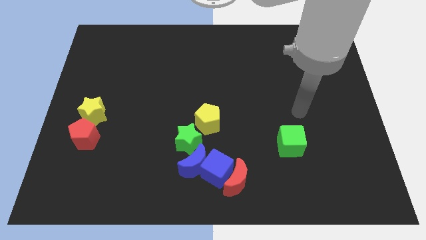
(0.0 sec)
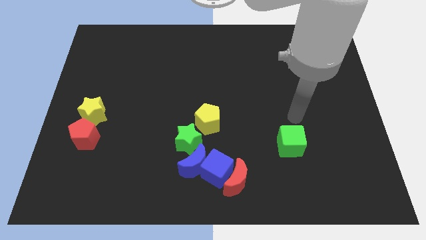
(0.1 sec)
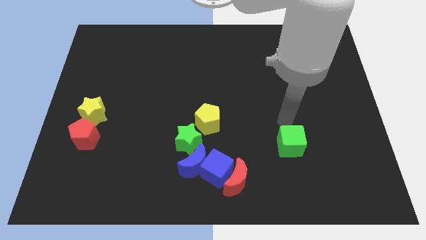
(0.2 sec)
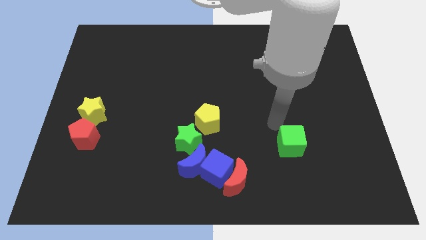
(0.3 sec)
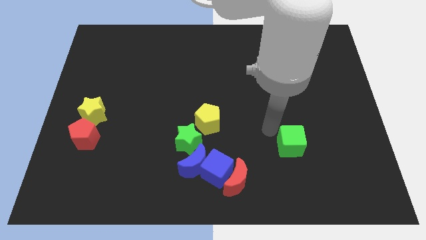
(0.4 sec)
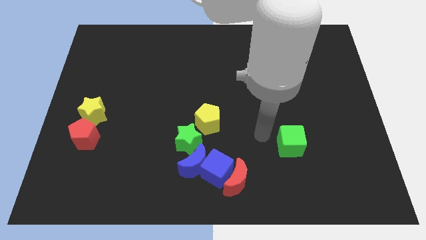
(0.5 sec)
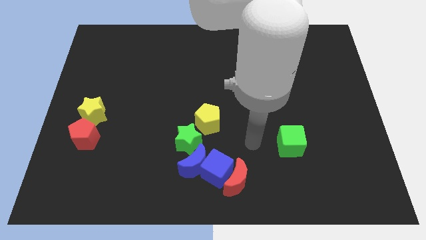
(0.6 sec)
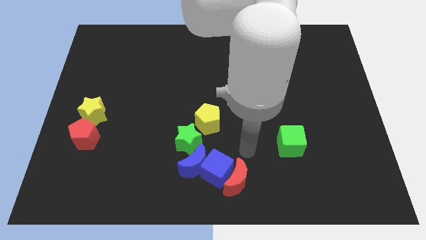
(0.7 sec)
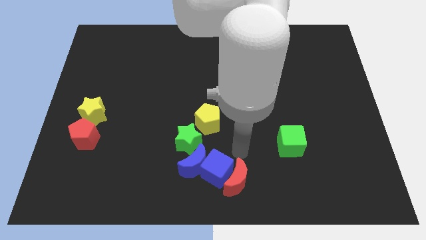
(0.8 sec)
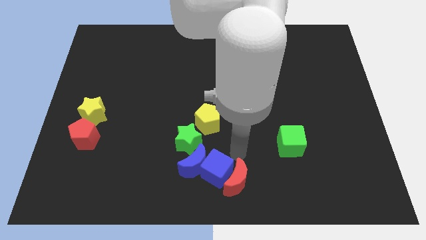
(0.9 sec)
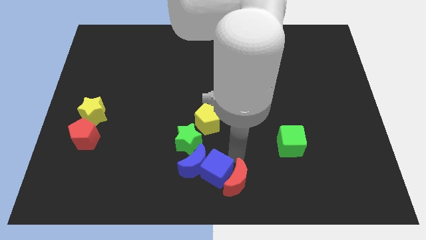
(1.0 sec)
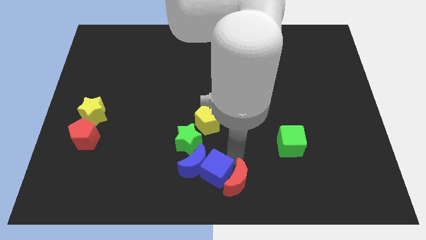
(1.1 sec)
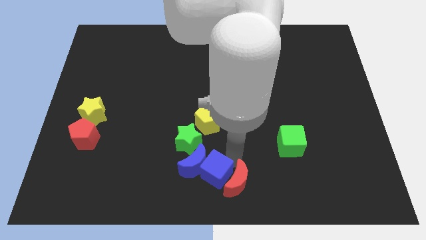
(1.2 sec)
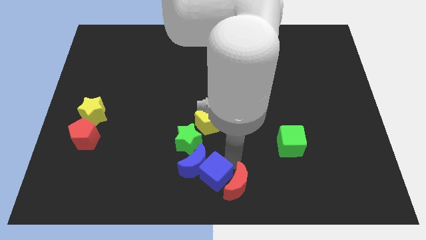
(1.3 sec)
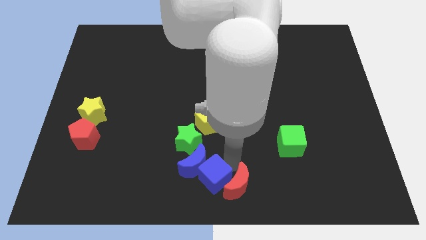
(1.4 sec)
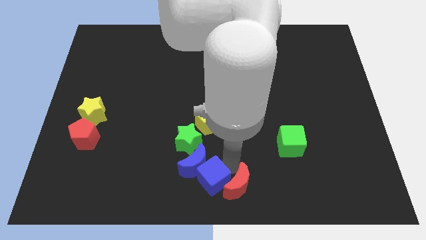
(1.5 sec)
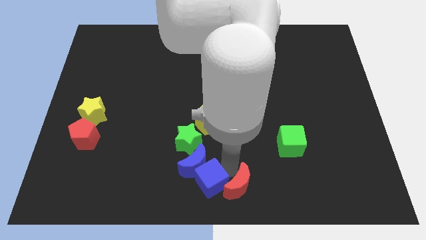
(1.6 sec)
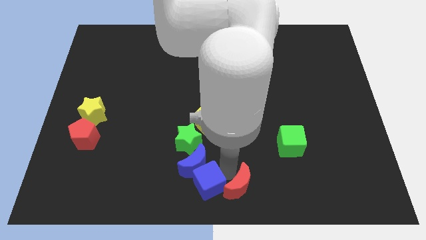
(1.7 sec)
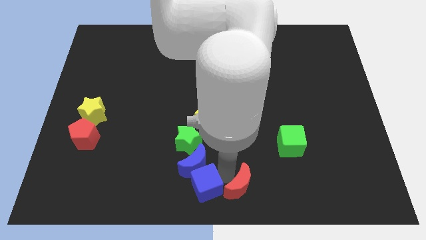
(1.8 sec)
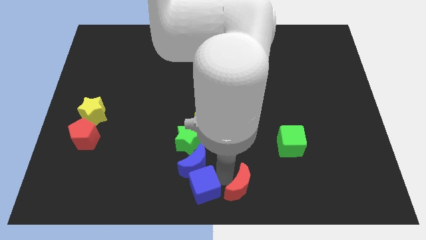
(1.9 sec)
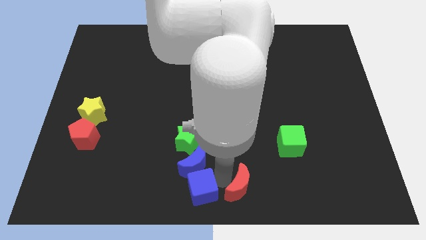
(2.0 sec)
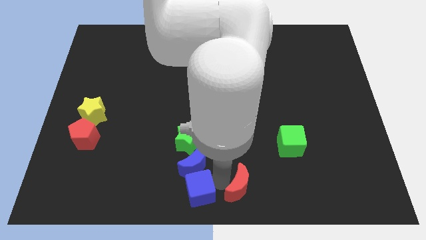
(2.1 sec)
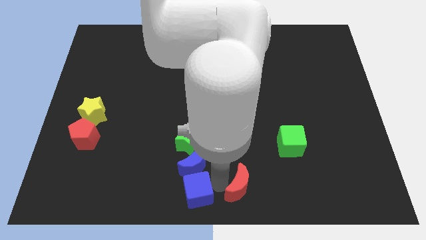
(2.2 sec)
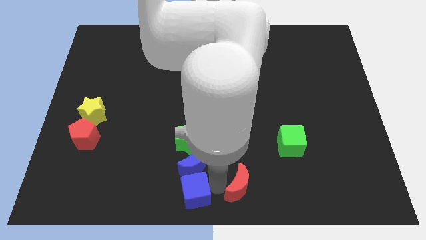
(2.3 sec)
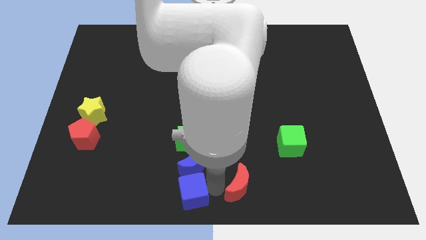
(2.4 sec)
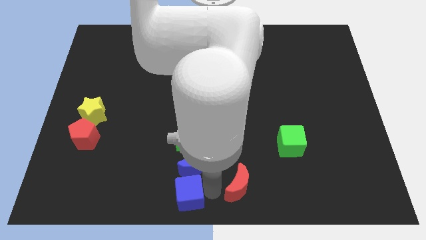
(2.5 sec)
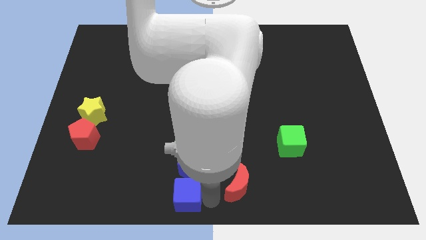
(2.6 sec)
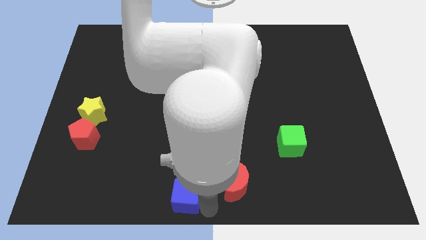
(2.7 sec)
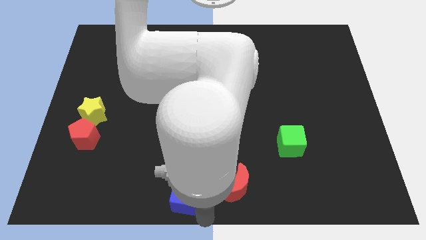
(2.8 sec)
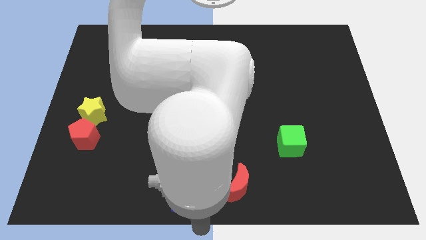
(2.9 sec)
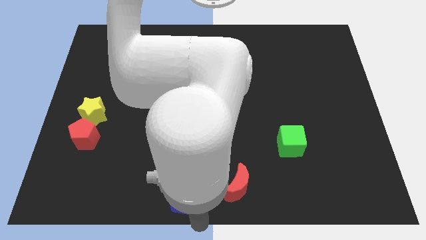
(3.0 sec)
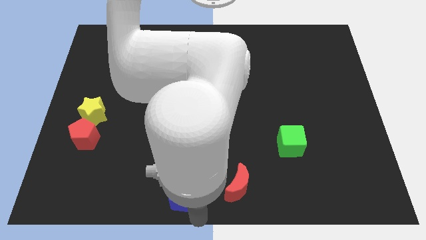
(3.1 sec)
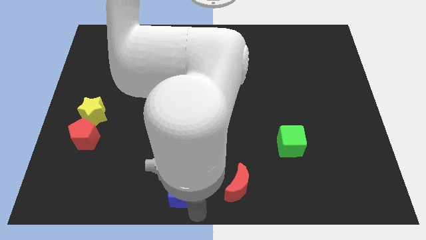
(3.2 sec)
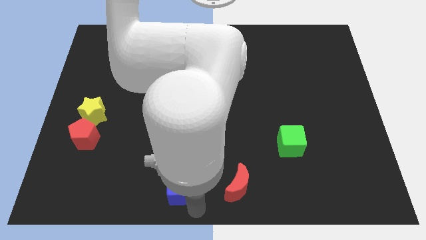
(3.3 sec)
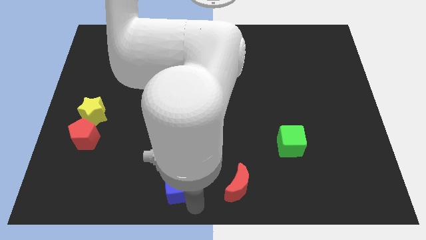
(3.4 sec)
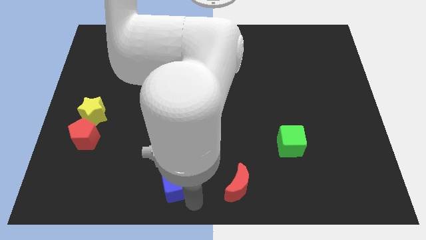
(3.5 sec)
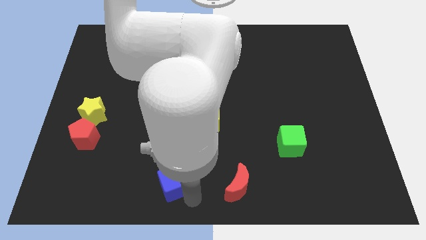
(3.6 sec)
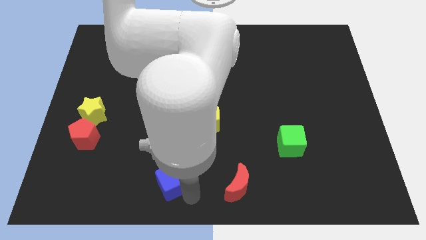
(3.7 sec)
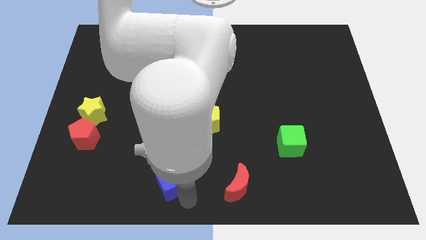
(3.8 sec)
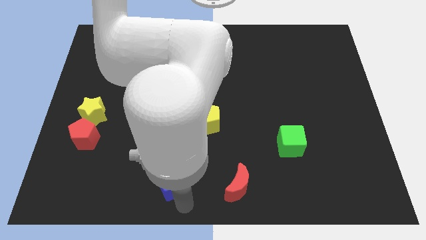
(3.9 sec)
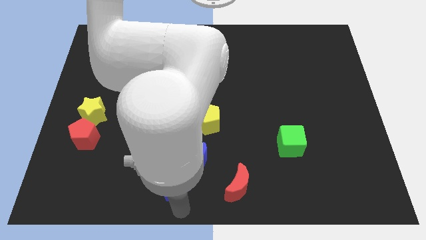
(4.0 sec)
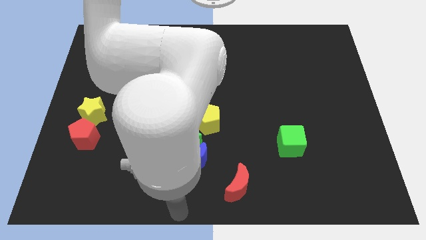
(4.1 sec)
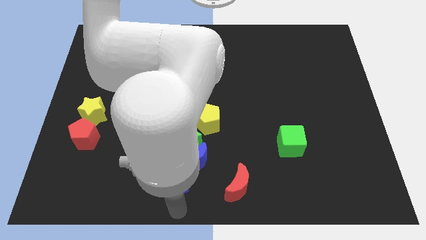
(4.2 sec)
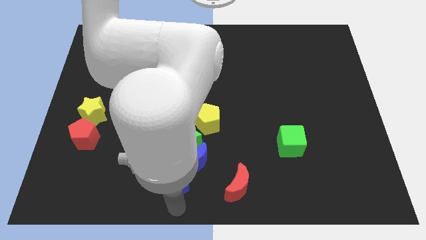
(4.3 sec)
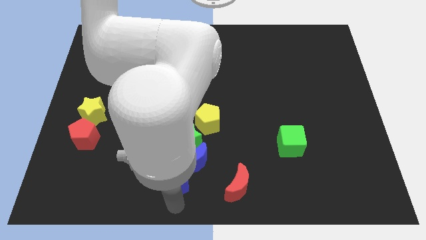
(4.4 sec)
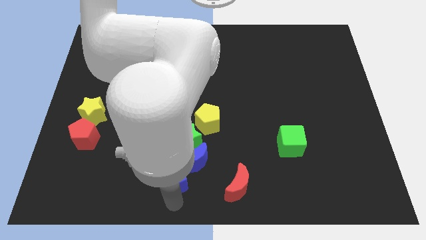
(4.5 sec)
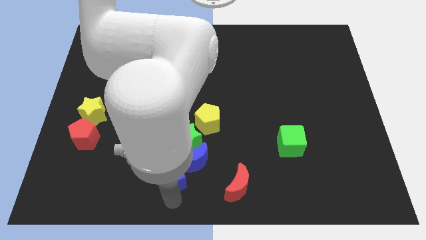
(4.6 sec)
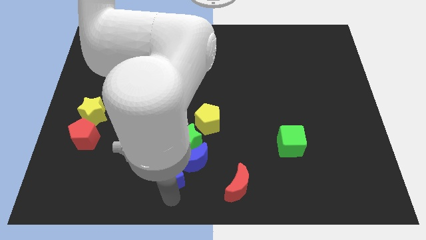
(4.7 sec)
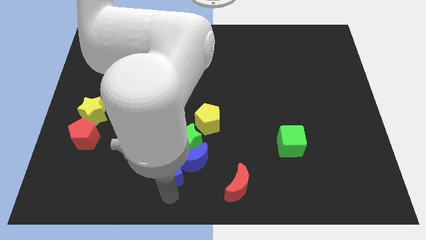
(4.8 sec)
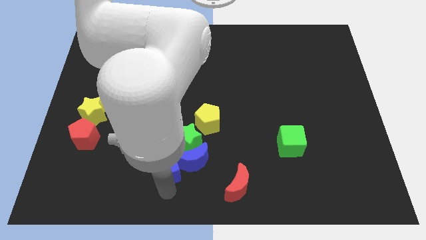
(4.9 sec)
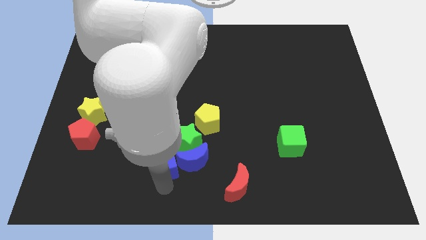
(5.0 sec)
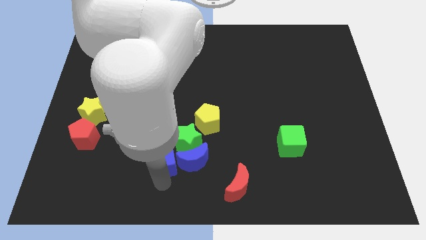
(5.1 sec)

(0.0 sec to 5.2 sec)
slightly push the blue cube upwards and left

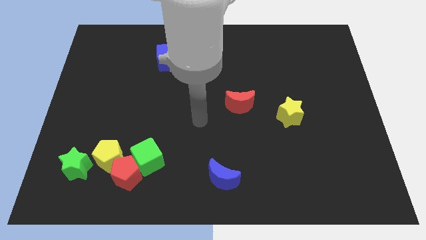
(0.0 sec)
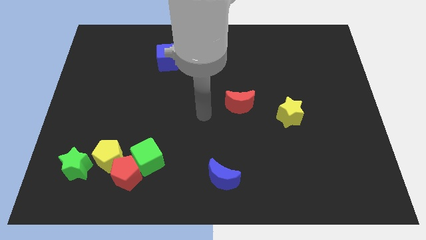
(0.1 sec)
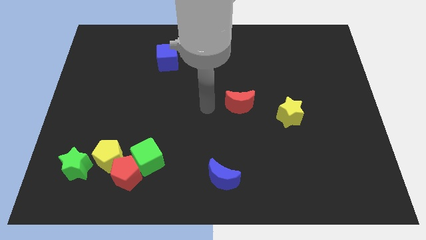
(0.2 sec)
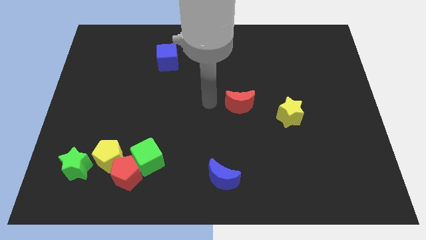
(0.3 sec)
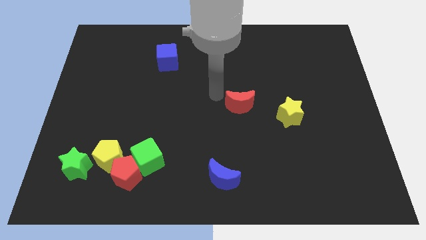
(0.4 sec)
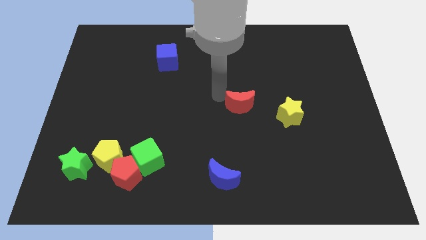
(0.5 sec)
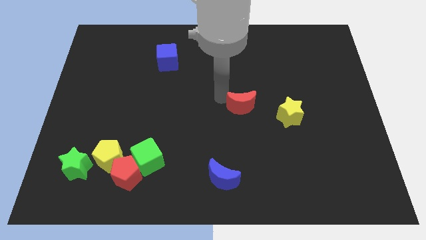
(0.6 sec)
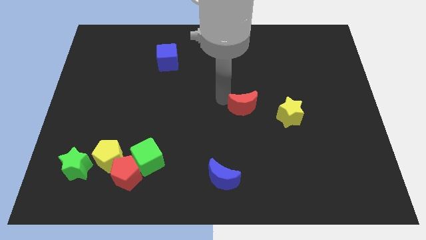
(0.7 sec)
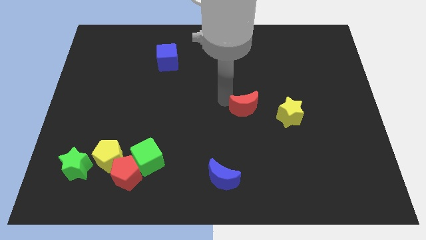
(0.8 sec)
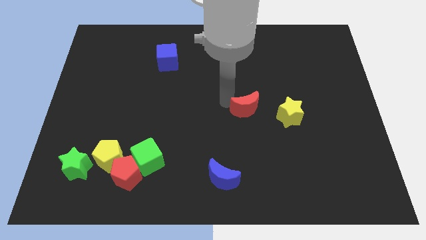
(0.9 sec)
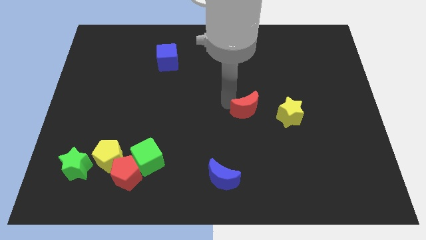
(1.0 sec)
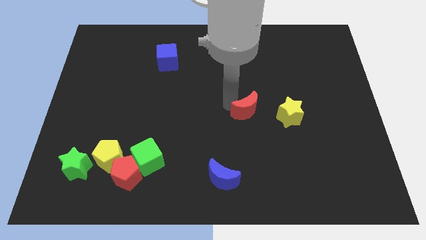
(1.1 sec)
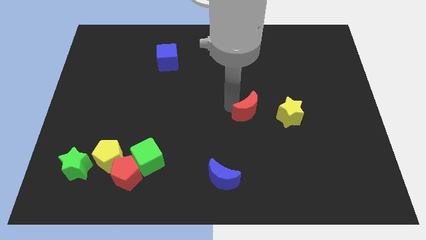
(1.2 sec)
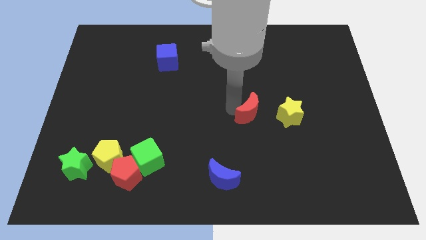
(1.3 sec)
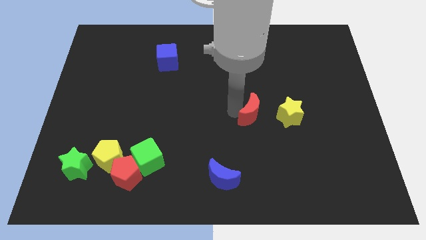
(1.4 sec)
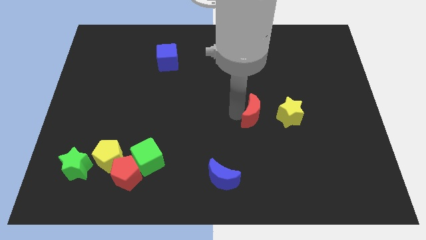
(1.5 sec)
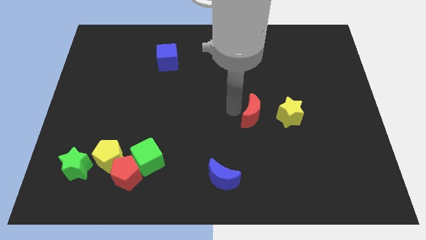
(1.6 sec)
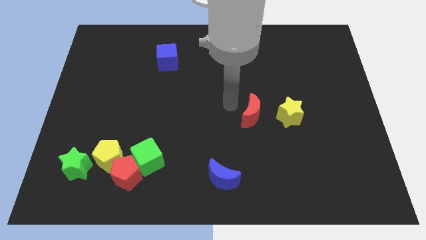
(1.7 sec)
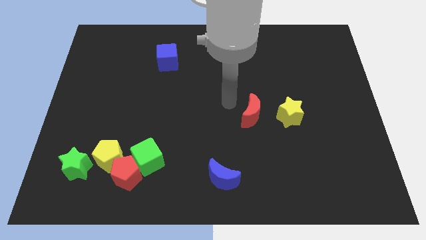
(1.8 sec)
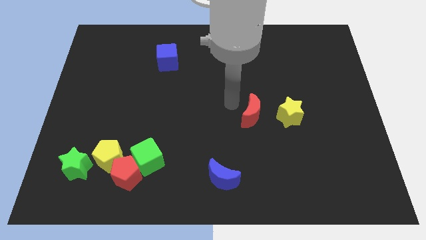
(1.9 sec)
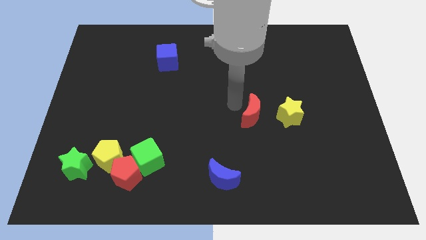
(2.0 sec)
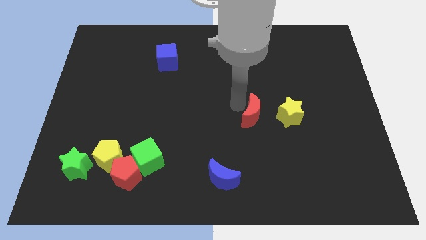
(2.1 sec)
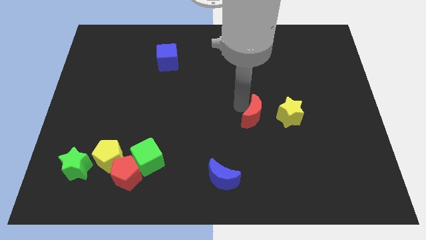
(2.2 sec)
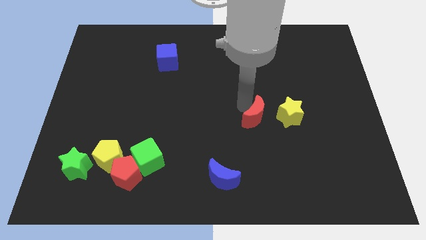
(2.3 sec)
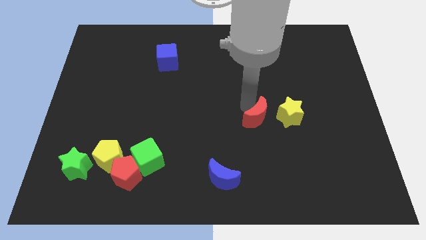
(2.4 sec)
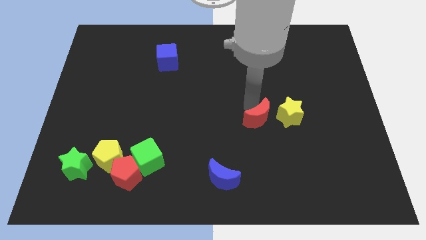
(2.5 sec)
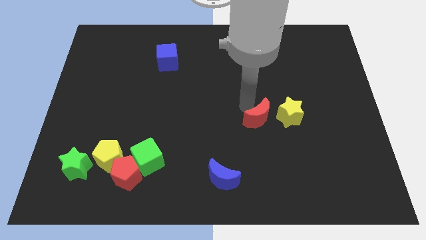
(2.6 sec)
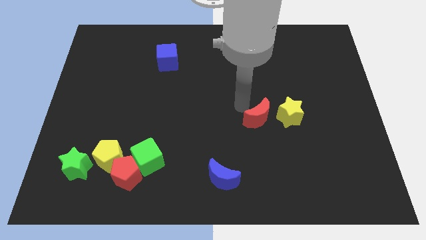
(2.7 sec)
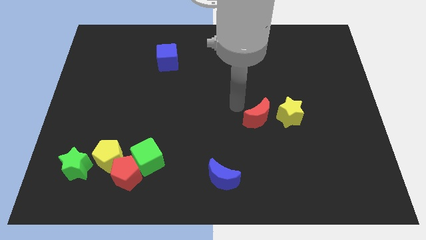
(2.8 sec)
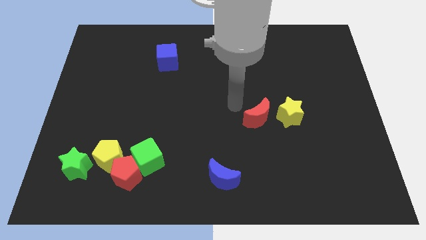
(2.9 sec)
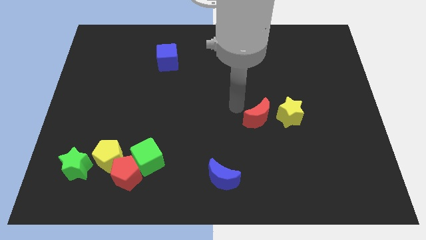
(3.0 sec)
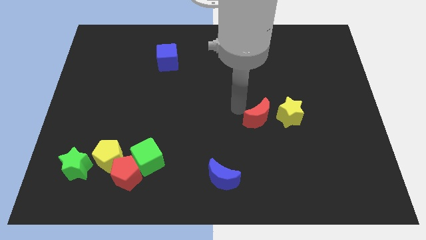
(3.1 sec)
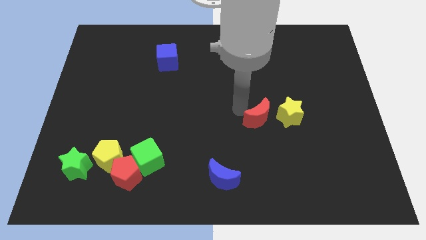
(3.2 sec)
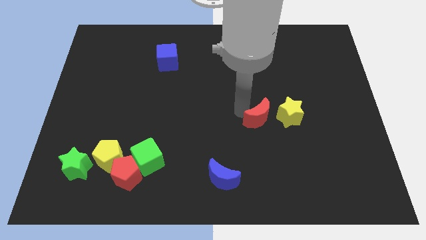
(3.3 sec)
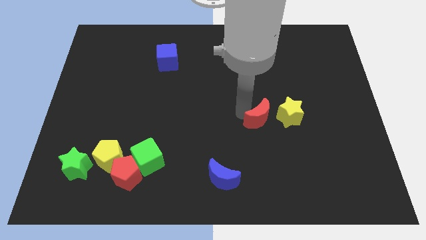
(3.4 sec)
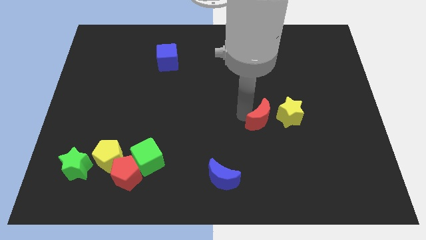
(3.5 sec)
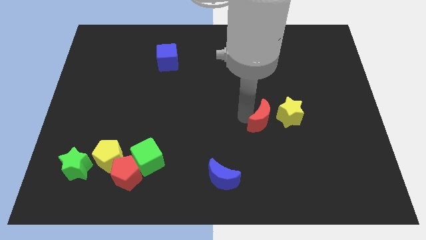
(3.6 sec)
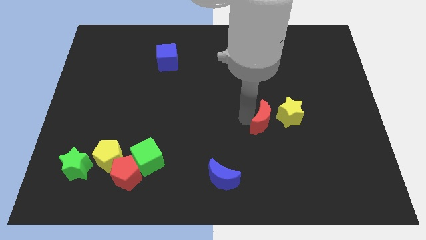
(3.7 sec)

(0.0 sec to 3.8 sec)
push the red moon a little bit diagonally downwards and right
